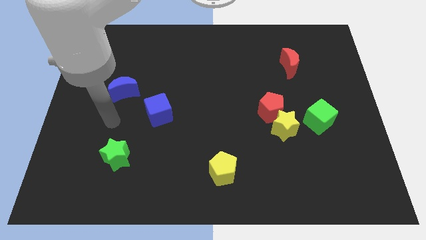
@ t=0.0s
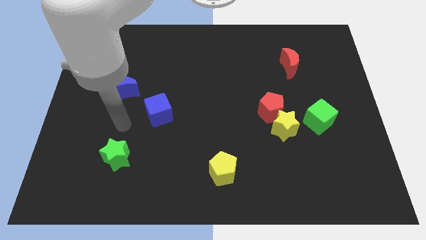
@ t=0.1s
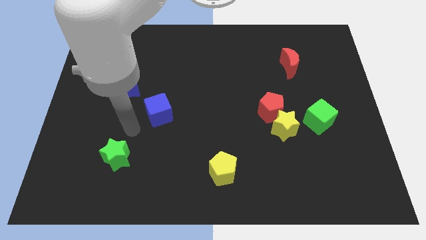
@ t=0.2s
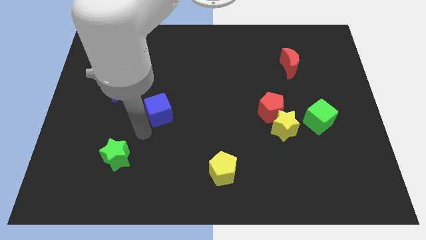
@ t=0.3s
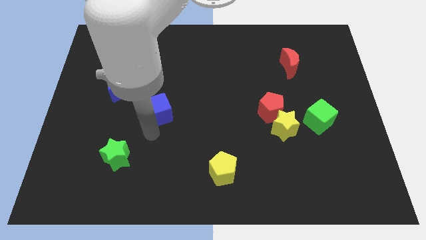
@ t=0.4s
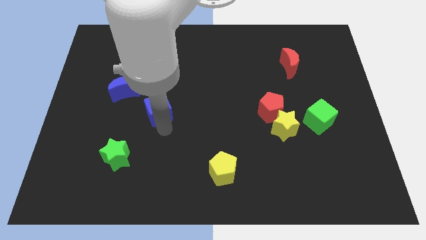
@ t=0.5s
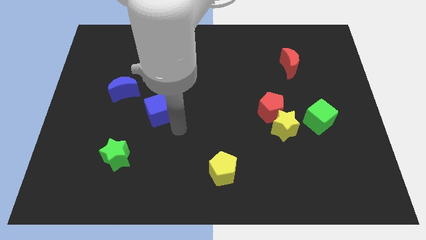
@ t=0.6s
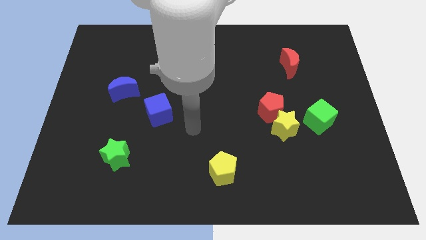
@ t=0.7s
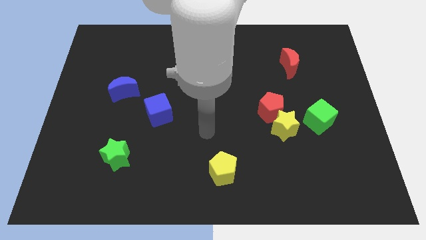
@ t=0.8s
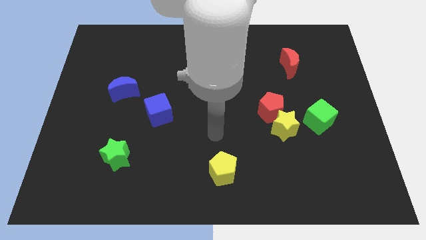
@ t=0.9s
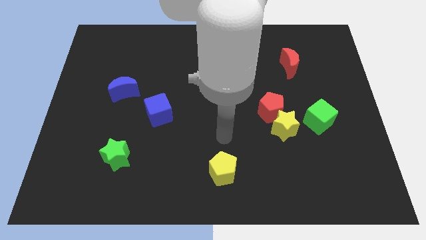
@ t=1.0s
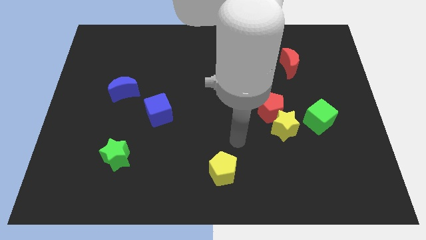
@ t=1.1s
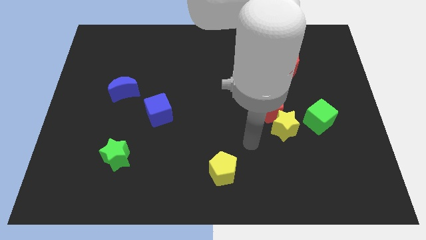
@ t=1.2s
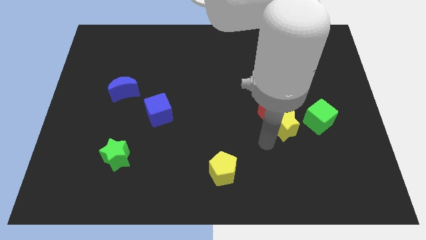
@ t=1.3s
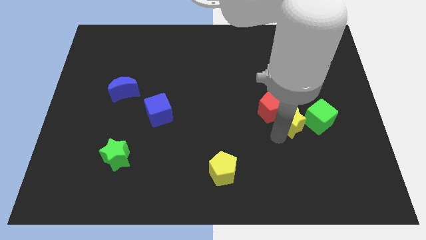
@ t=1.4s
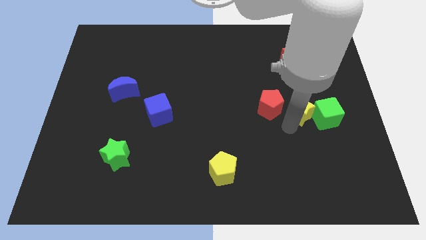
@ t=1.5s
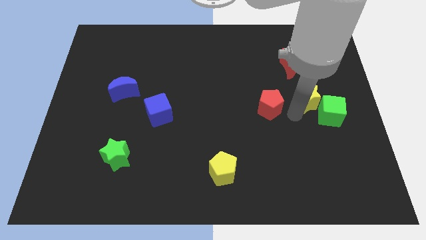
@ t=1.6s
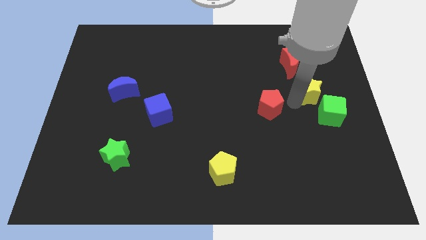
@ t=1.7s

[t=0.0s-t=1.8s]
pull the red pentagon apart from the yellow star

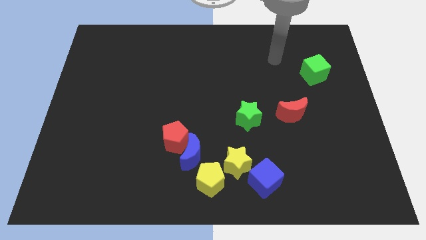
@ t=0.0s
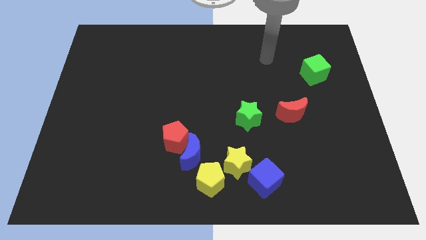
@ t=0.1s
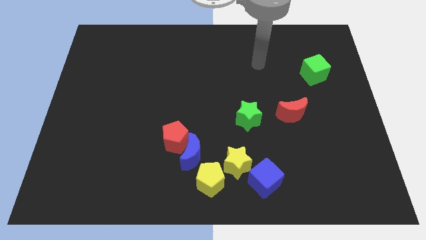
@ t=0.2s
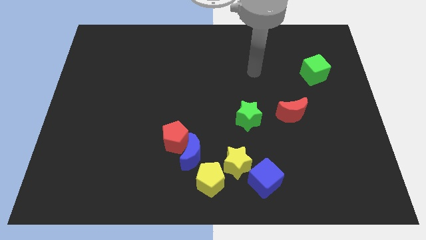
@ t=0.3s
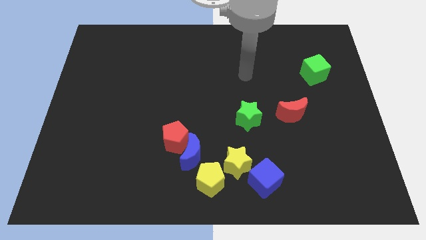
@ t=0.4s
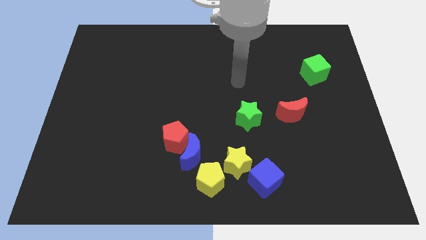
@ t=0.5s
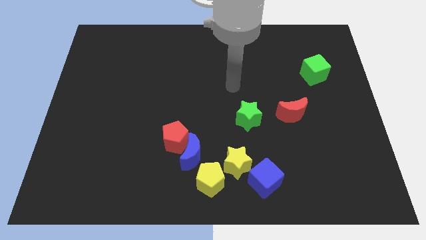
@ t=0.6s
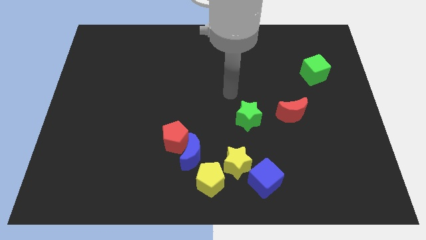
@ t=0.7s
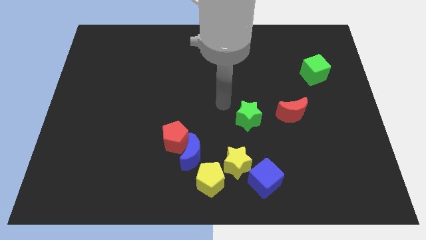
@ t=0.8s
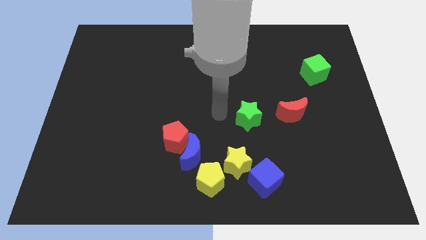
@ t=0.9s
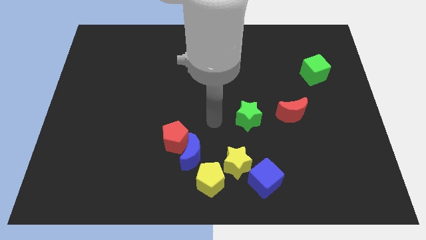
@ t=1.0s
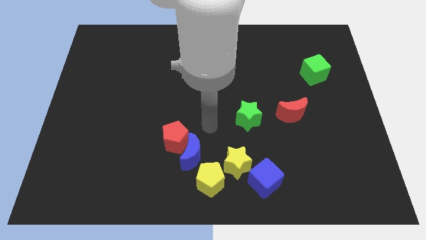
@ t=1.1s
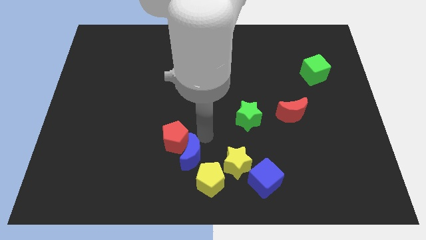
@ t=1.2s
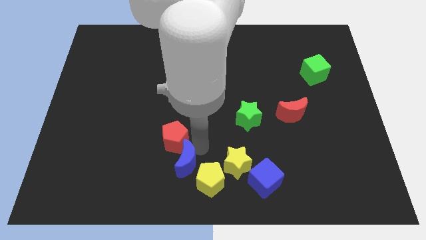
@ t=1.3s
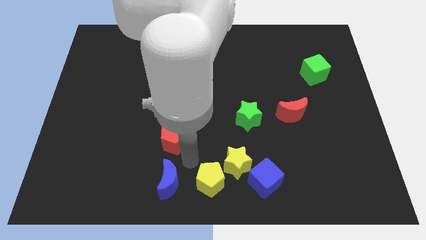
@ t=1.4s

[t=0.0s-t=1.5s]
separate the red pentagon from the blue moon

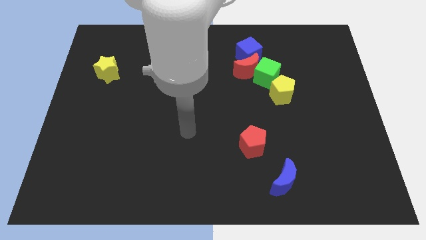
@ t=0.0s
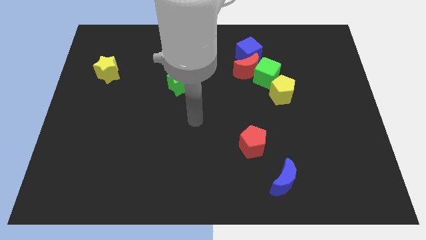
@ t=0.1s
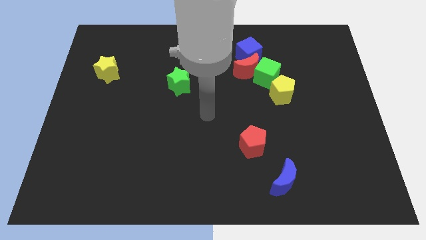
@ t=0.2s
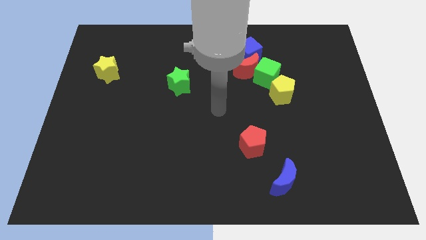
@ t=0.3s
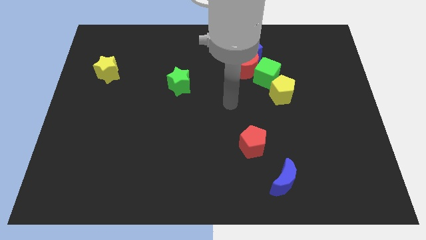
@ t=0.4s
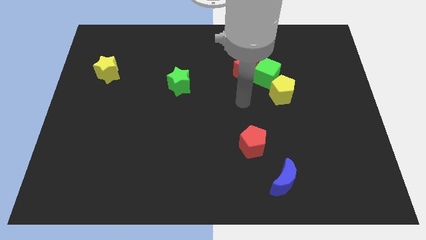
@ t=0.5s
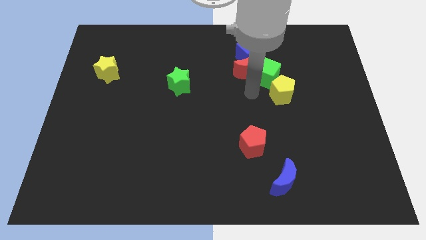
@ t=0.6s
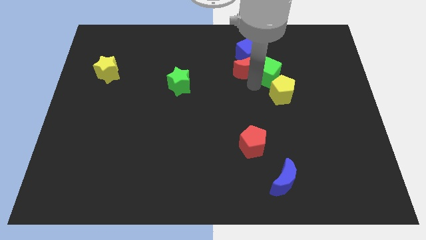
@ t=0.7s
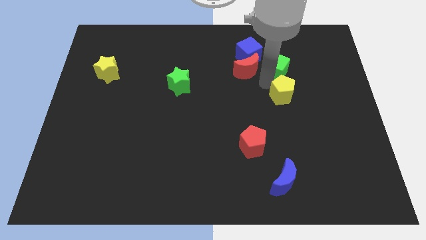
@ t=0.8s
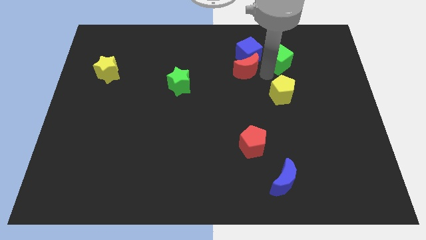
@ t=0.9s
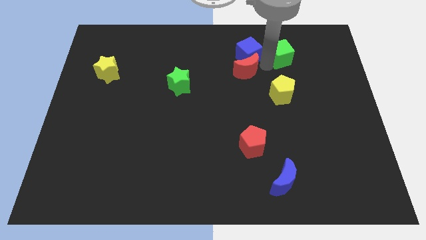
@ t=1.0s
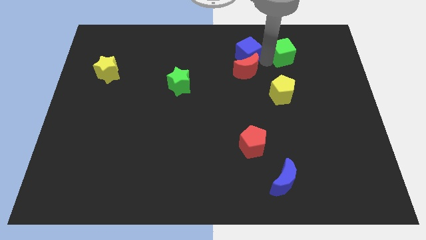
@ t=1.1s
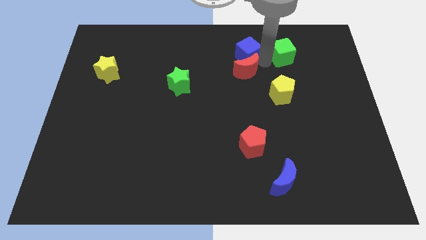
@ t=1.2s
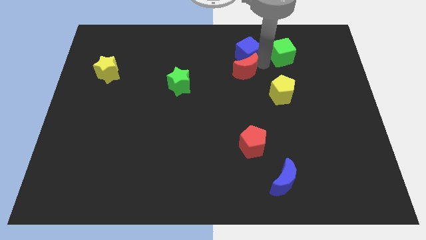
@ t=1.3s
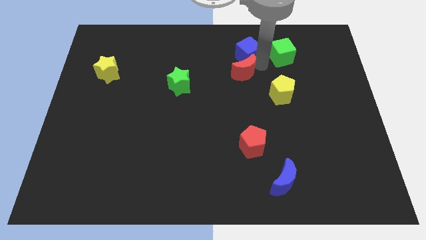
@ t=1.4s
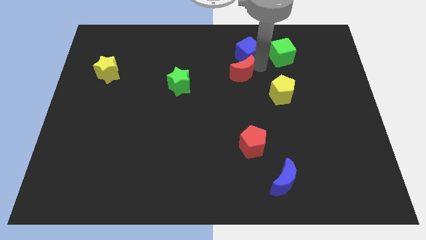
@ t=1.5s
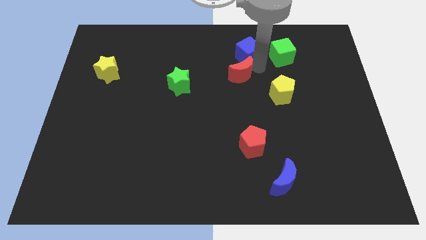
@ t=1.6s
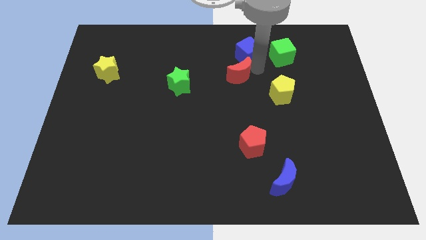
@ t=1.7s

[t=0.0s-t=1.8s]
separate the red moon from the green cube and blue cube

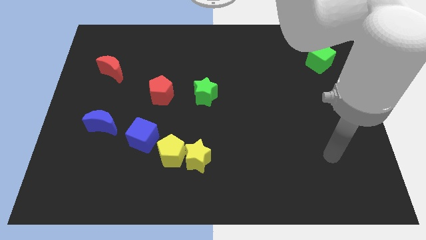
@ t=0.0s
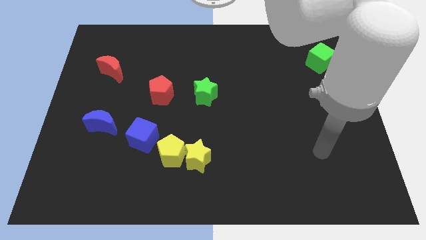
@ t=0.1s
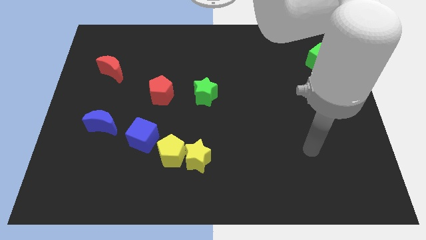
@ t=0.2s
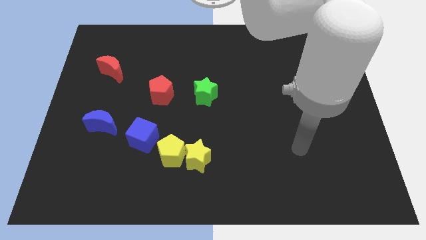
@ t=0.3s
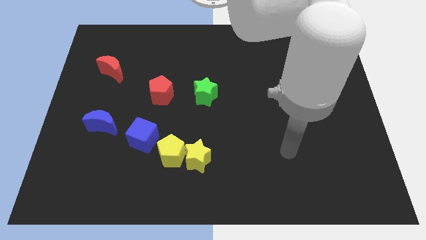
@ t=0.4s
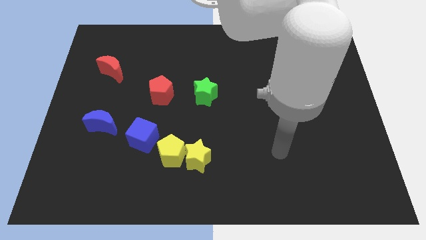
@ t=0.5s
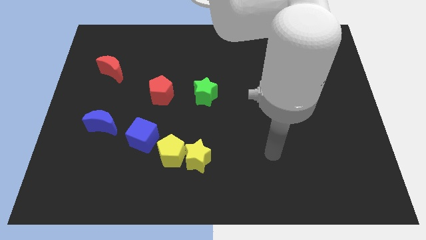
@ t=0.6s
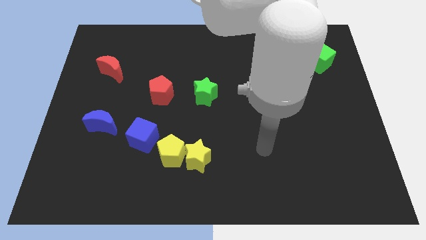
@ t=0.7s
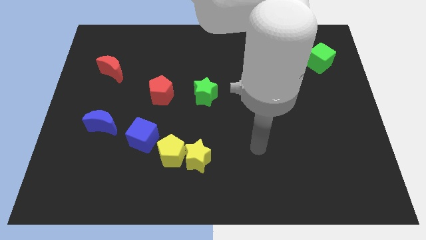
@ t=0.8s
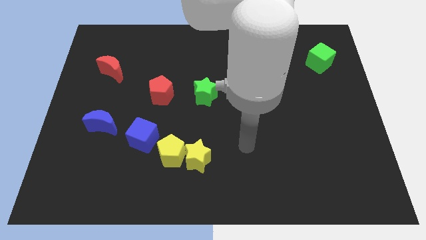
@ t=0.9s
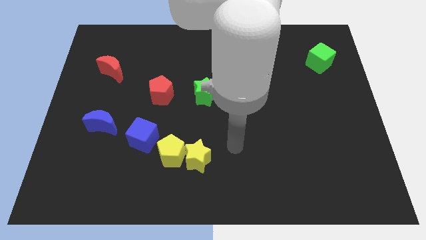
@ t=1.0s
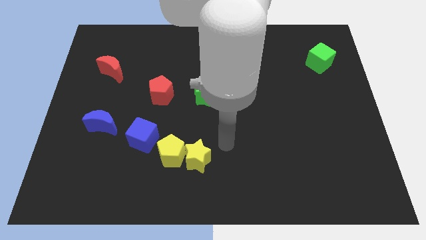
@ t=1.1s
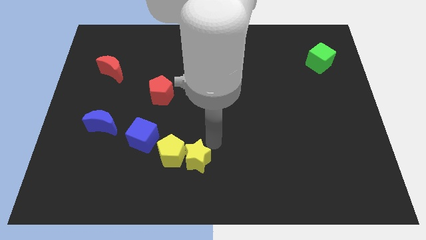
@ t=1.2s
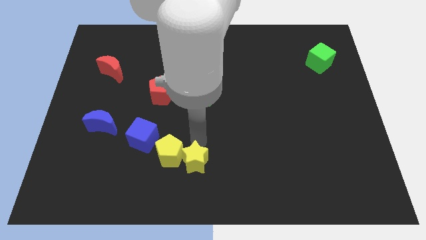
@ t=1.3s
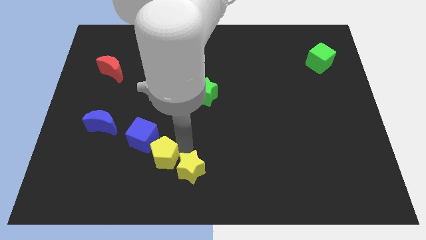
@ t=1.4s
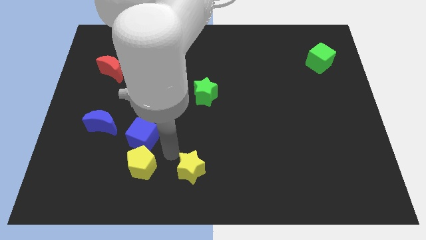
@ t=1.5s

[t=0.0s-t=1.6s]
pull the yellow star apart from the yellow pentagon

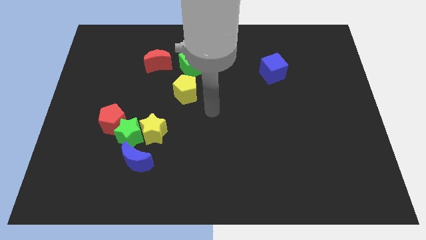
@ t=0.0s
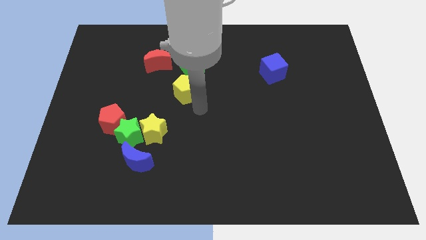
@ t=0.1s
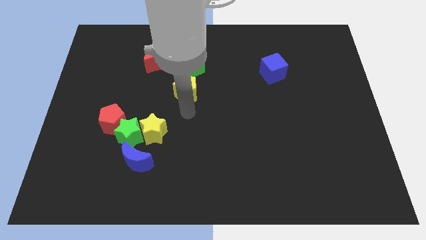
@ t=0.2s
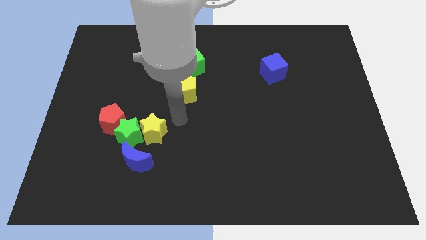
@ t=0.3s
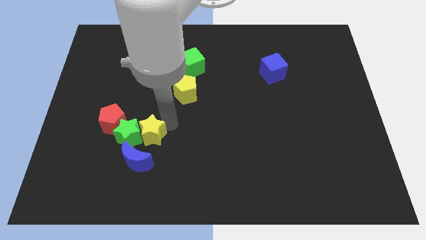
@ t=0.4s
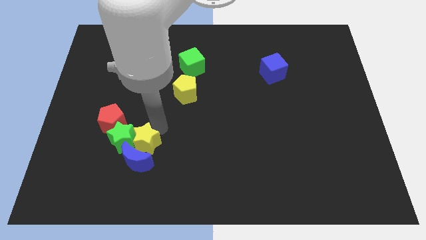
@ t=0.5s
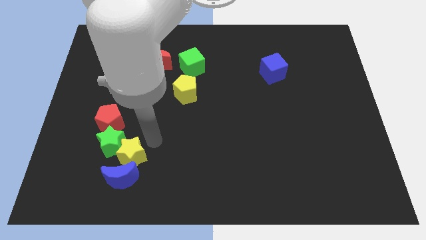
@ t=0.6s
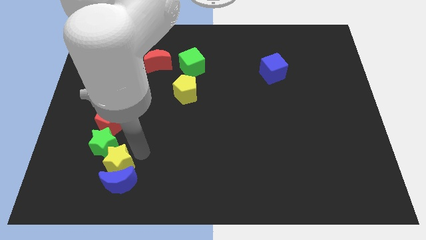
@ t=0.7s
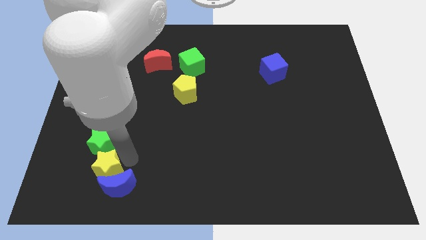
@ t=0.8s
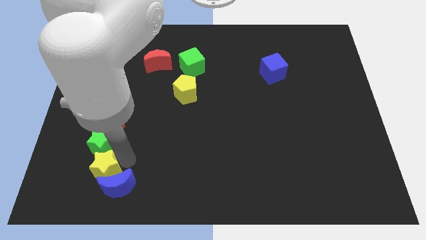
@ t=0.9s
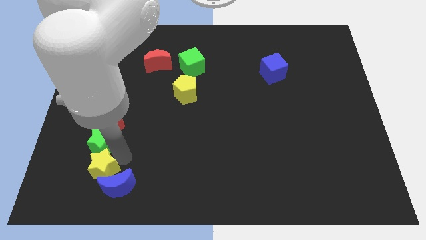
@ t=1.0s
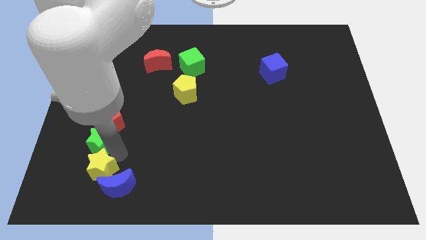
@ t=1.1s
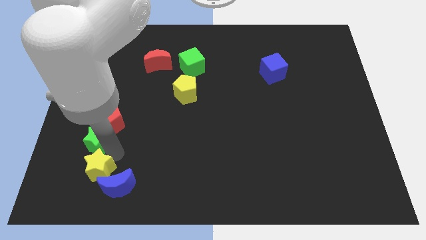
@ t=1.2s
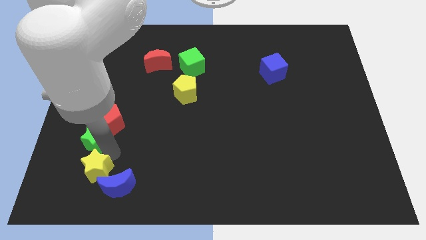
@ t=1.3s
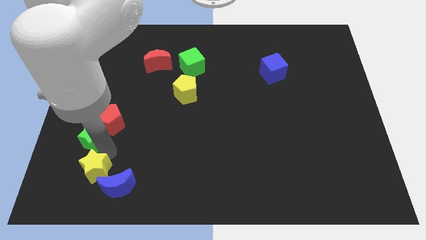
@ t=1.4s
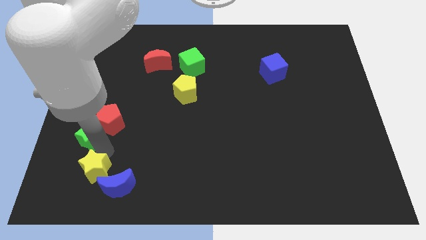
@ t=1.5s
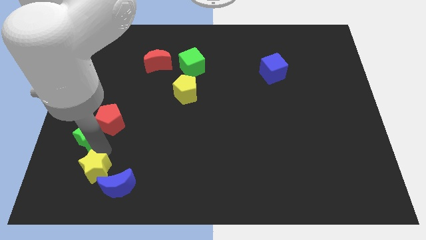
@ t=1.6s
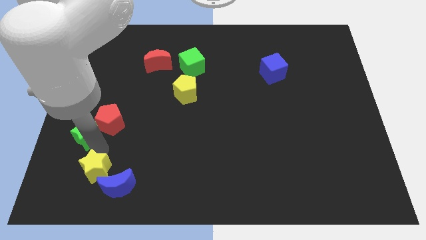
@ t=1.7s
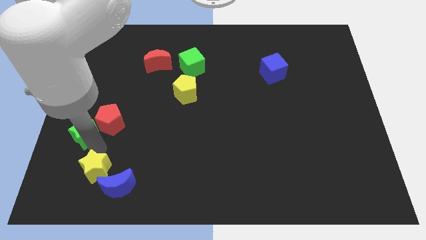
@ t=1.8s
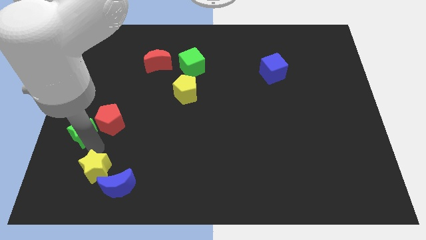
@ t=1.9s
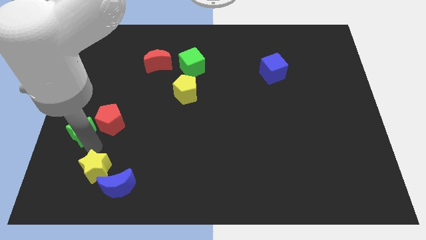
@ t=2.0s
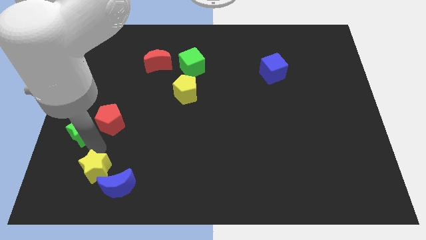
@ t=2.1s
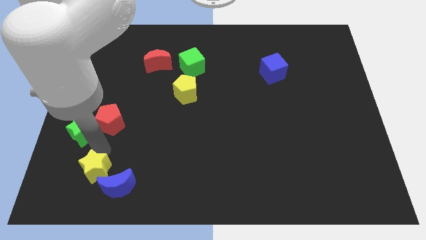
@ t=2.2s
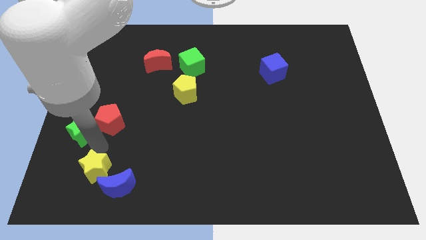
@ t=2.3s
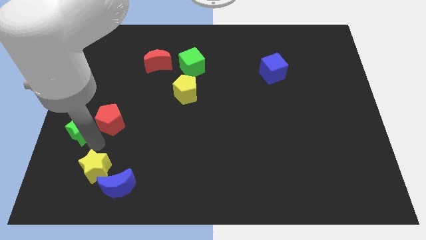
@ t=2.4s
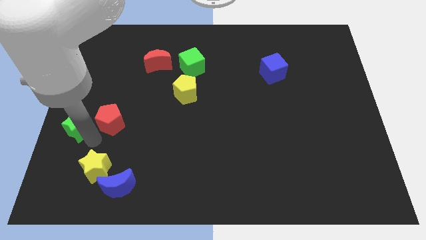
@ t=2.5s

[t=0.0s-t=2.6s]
separate the green star from the clump
